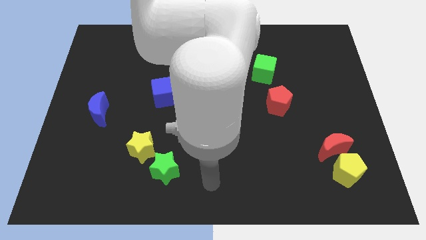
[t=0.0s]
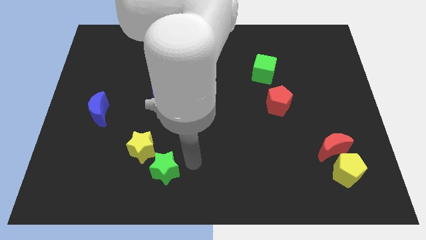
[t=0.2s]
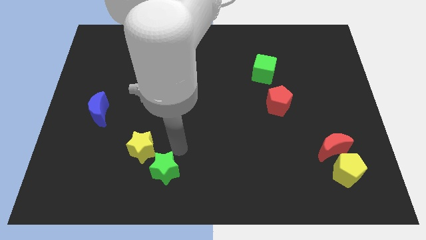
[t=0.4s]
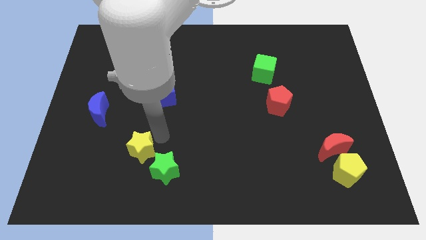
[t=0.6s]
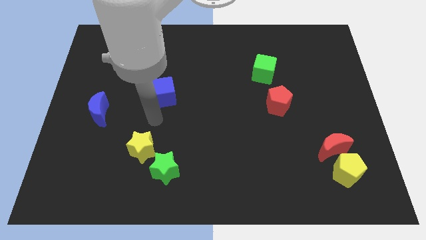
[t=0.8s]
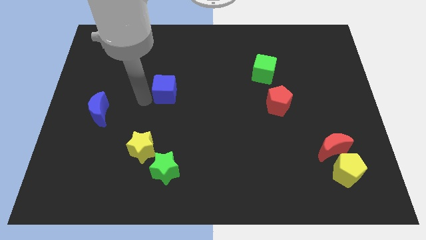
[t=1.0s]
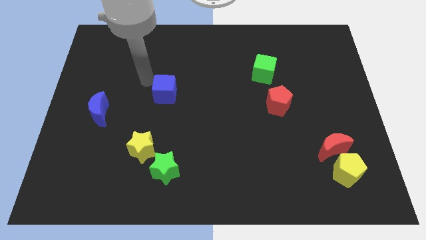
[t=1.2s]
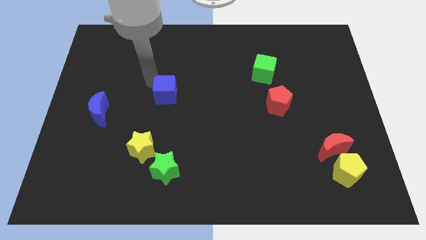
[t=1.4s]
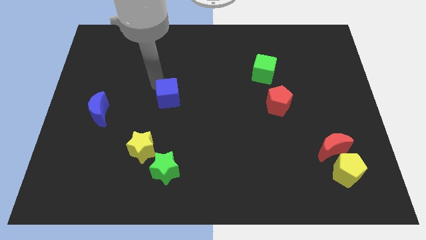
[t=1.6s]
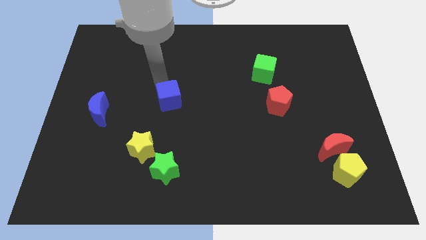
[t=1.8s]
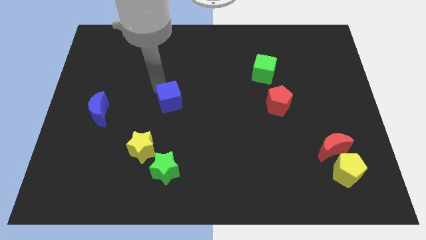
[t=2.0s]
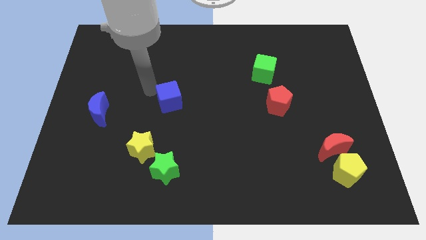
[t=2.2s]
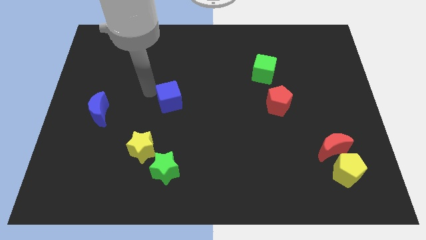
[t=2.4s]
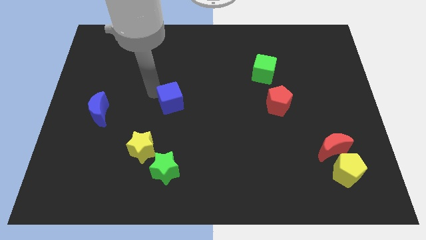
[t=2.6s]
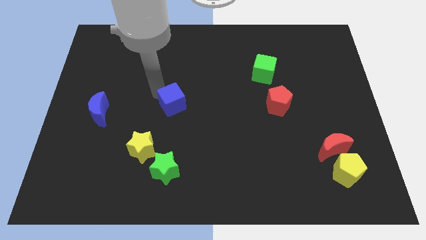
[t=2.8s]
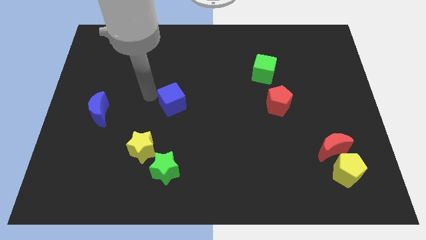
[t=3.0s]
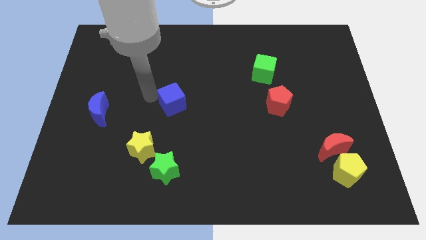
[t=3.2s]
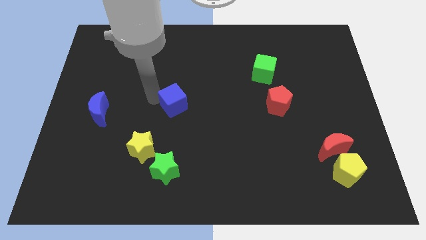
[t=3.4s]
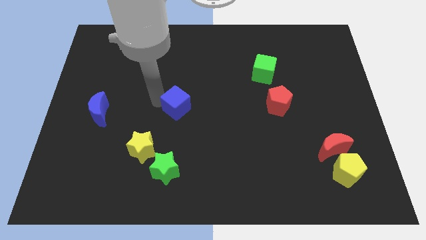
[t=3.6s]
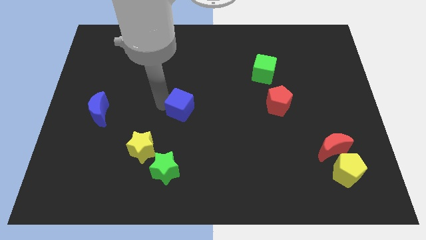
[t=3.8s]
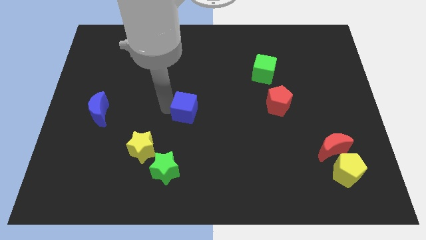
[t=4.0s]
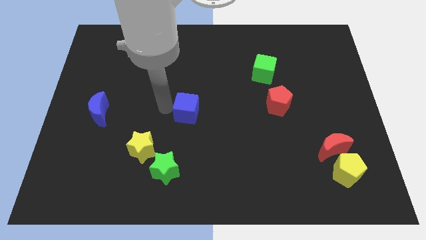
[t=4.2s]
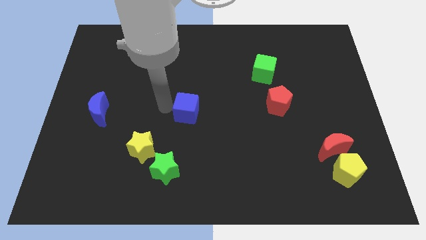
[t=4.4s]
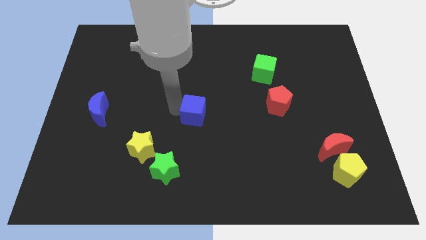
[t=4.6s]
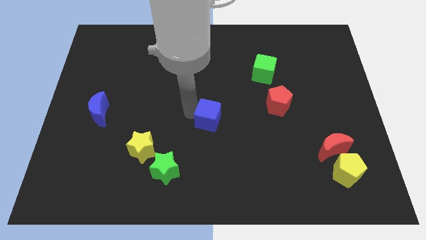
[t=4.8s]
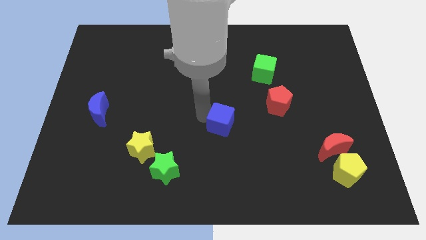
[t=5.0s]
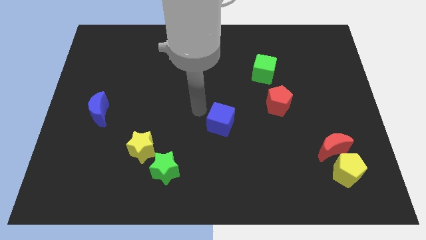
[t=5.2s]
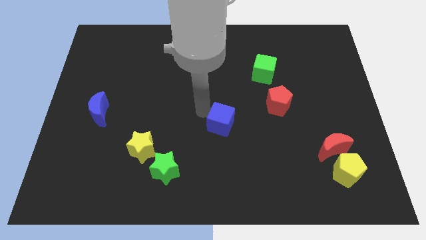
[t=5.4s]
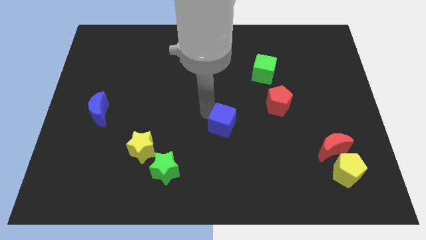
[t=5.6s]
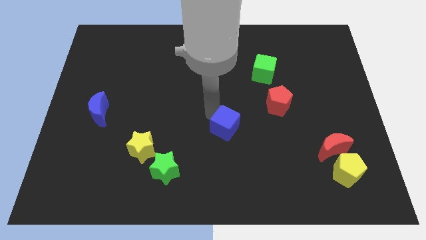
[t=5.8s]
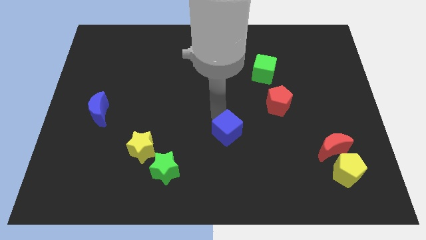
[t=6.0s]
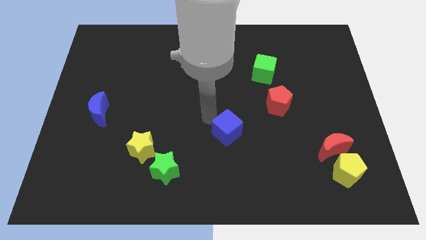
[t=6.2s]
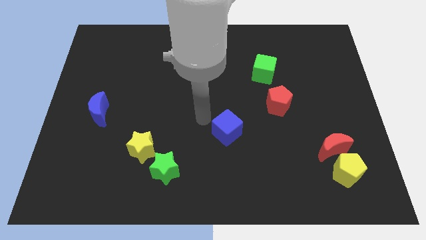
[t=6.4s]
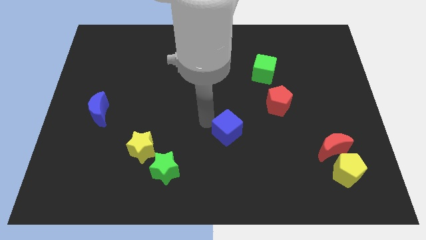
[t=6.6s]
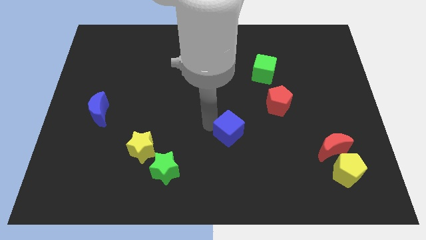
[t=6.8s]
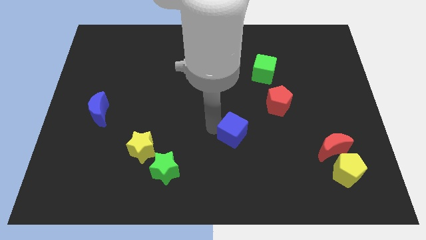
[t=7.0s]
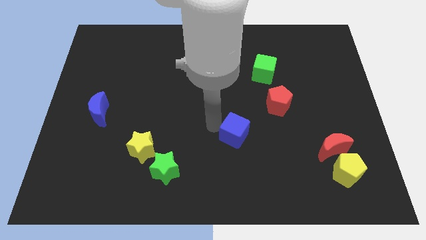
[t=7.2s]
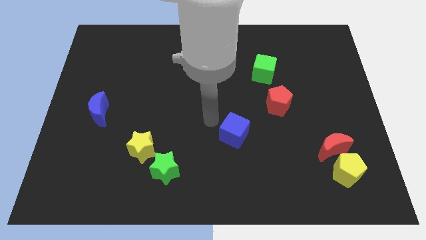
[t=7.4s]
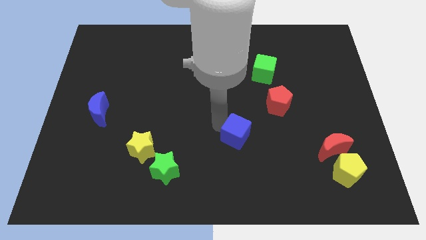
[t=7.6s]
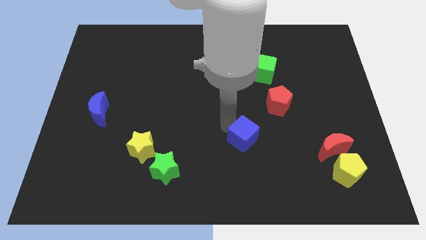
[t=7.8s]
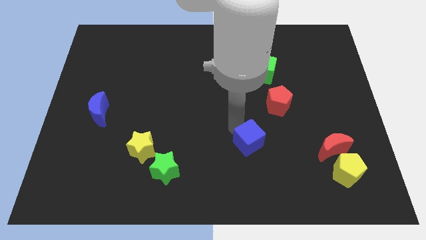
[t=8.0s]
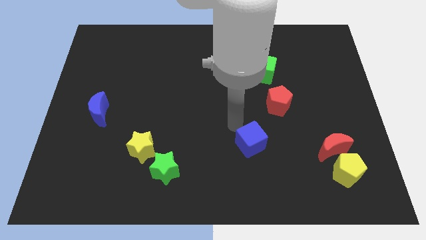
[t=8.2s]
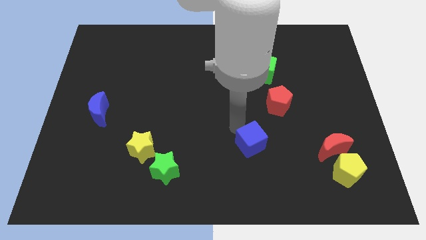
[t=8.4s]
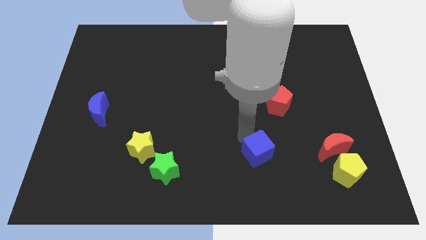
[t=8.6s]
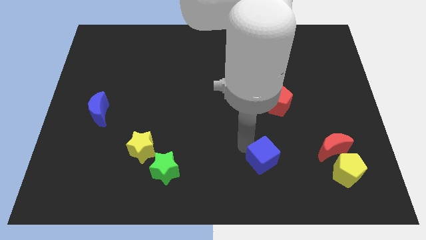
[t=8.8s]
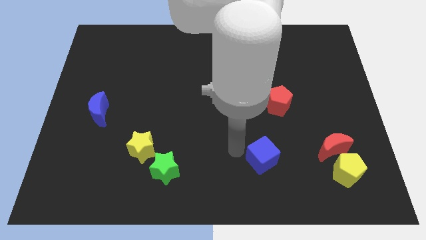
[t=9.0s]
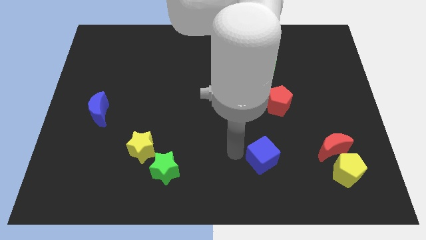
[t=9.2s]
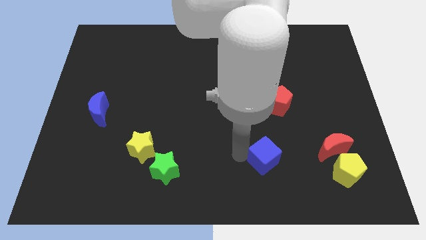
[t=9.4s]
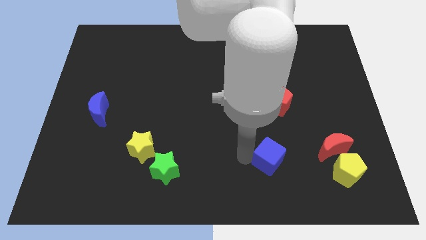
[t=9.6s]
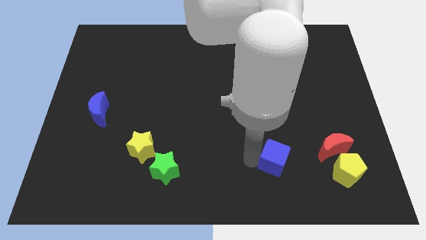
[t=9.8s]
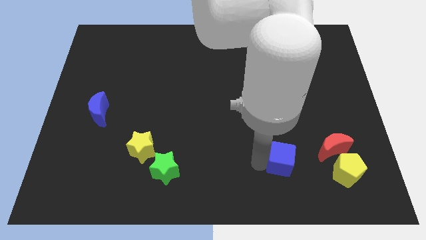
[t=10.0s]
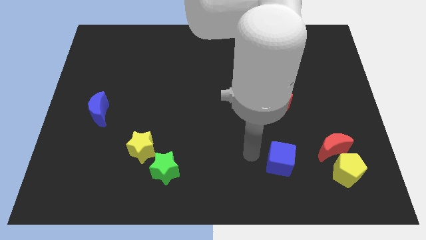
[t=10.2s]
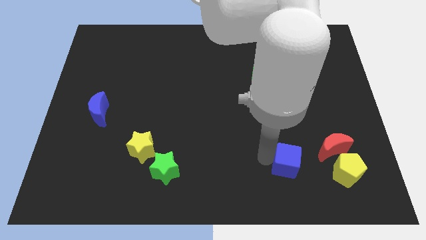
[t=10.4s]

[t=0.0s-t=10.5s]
put the blue cube to the bottom left of the red moon

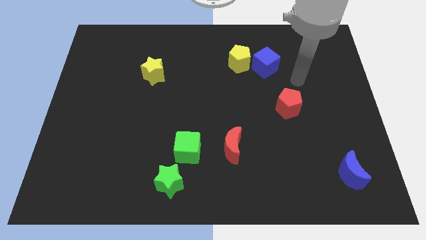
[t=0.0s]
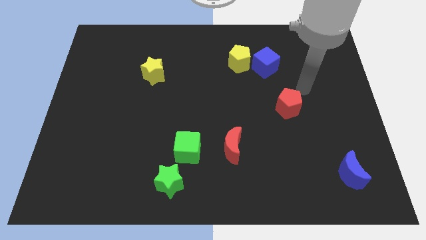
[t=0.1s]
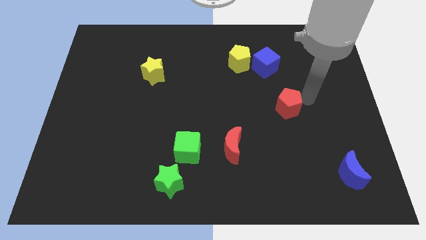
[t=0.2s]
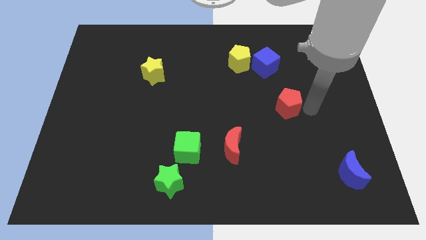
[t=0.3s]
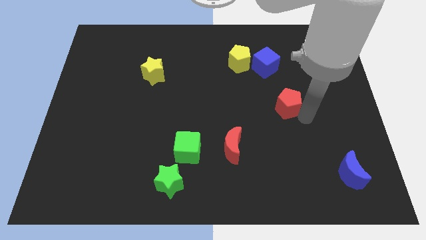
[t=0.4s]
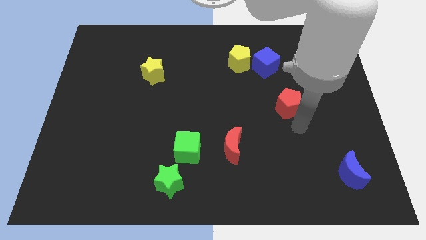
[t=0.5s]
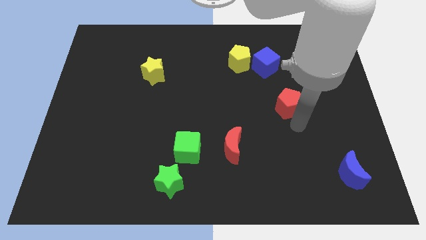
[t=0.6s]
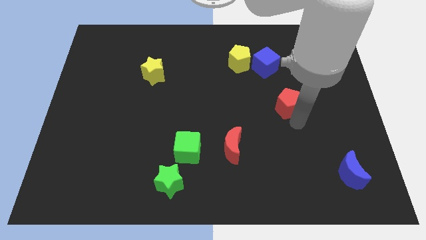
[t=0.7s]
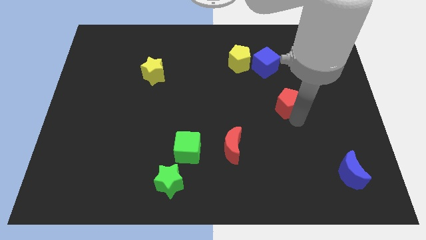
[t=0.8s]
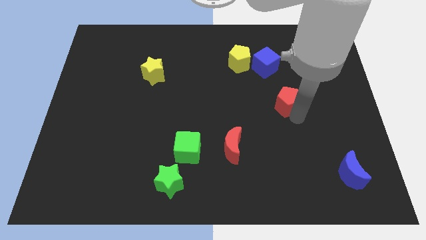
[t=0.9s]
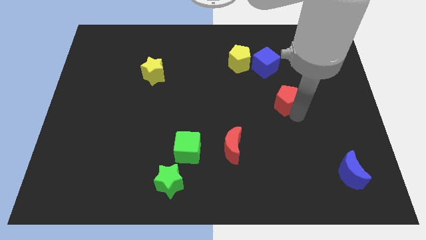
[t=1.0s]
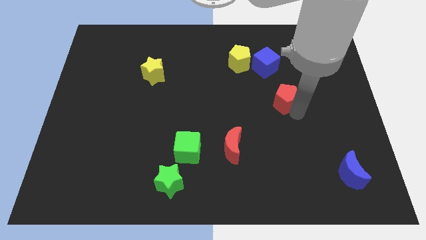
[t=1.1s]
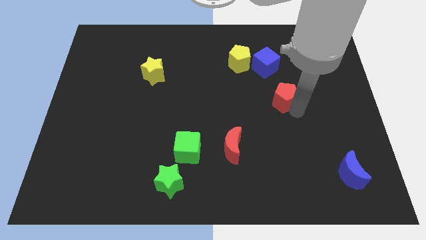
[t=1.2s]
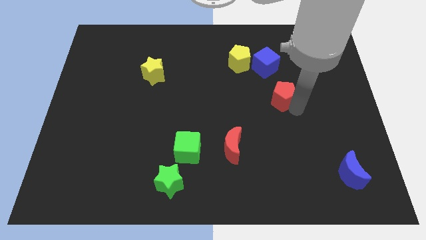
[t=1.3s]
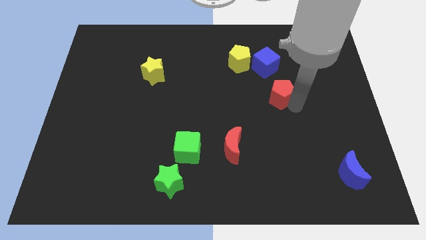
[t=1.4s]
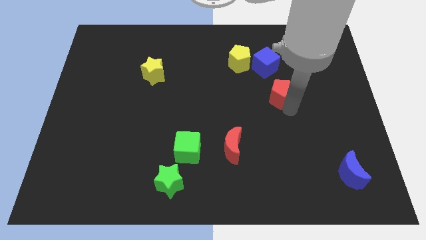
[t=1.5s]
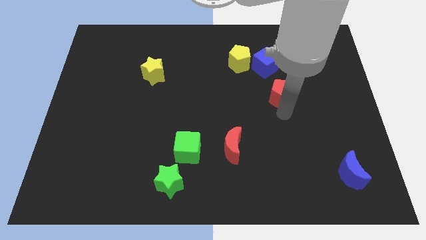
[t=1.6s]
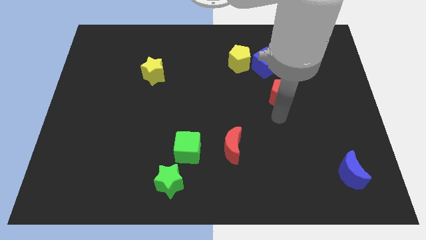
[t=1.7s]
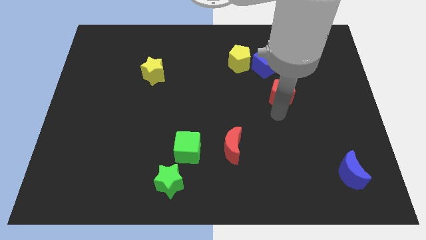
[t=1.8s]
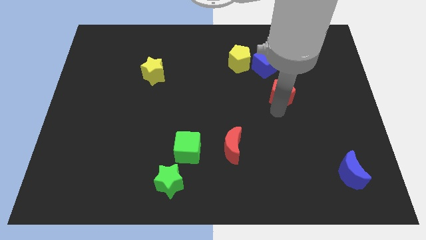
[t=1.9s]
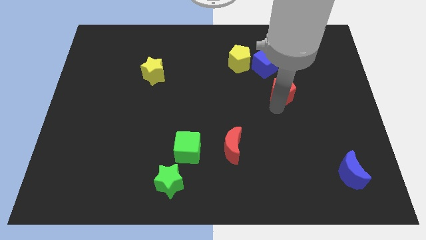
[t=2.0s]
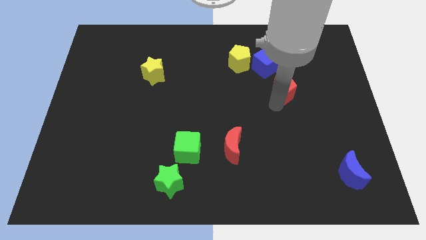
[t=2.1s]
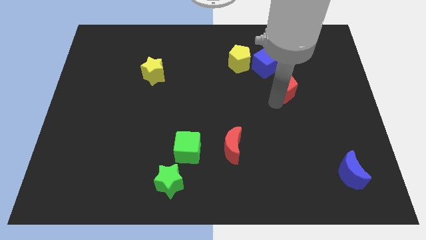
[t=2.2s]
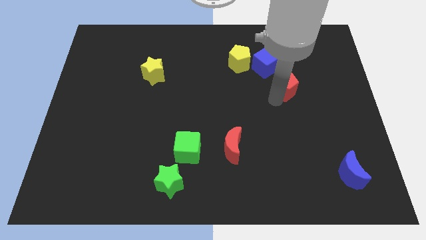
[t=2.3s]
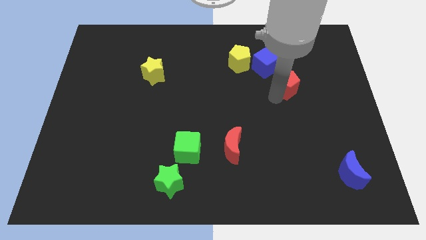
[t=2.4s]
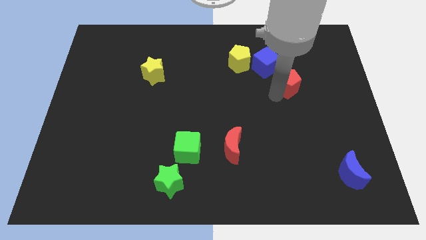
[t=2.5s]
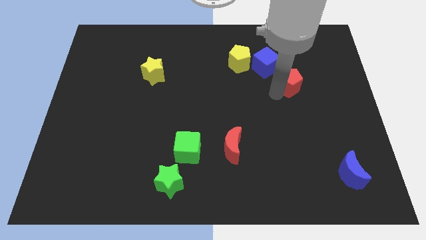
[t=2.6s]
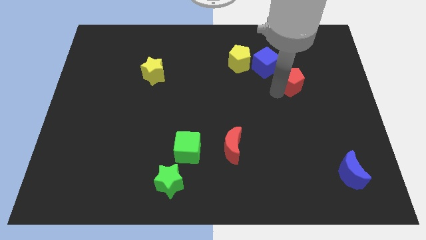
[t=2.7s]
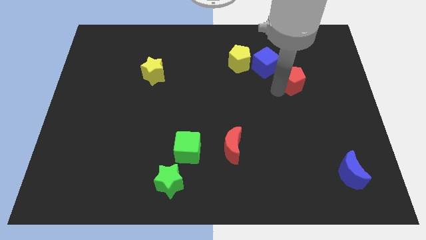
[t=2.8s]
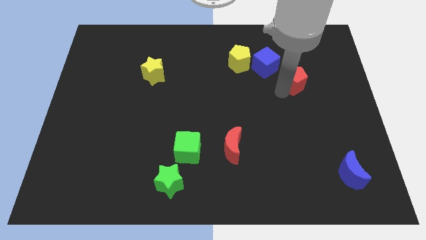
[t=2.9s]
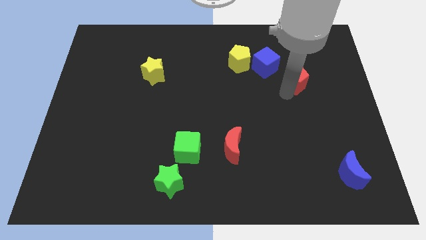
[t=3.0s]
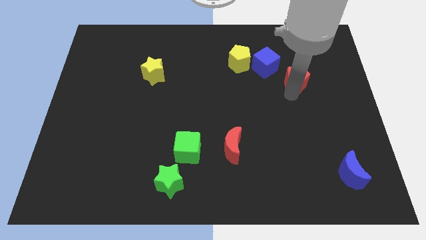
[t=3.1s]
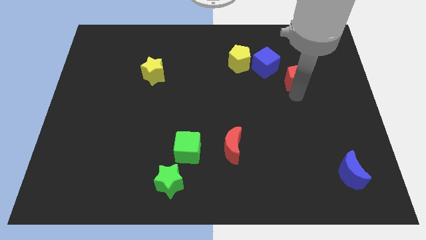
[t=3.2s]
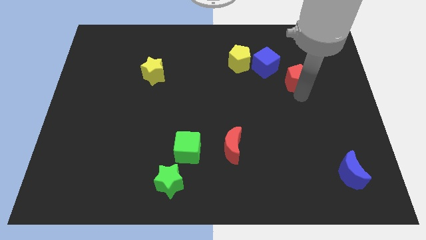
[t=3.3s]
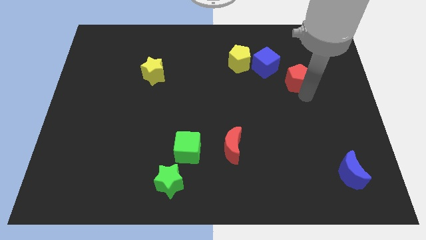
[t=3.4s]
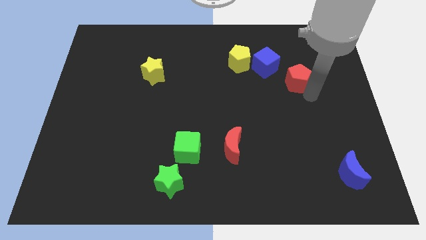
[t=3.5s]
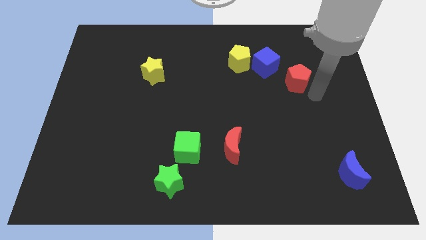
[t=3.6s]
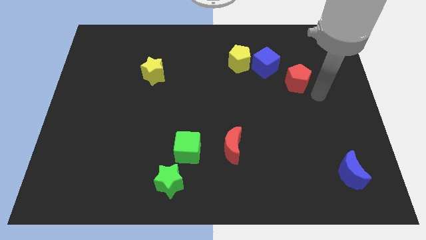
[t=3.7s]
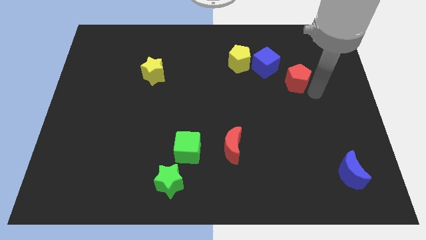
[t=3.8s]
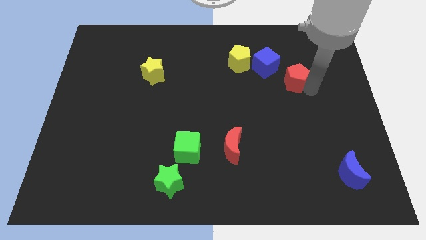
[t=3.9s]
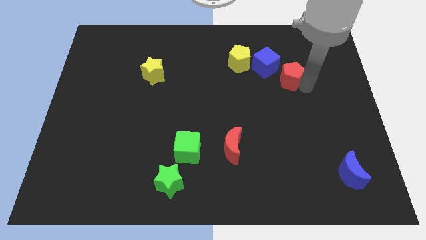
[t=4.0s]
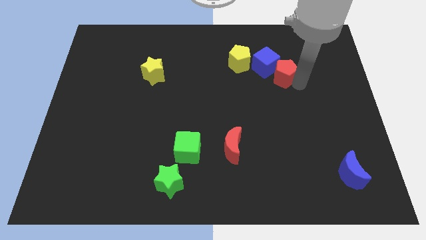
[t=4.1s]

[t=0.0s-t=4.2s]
slide the red pentagon to the right side of the yellow pentagon
